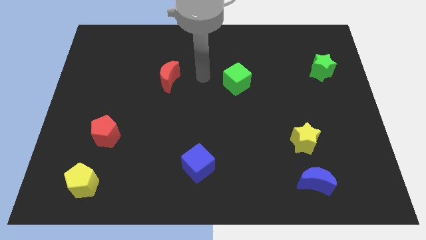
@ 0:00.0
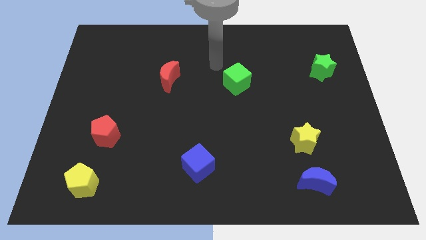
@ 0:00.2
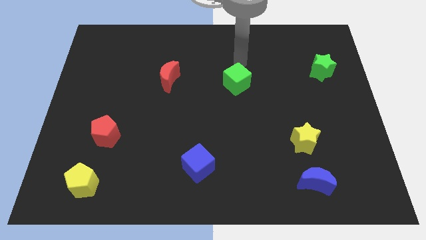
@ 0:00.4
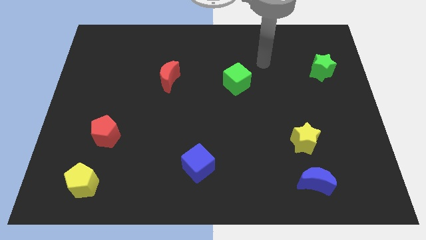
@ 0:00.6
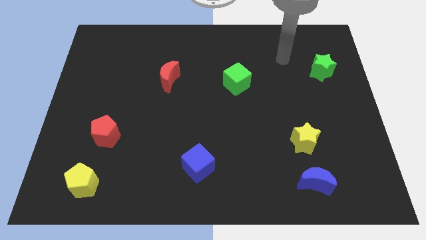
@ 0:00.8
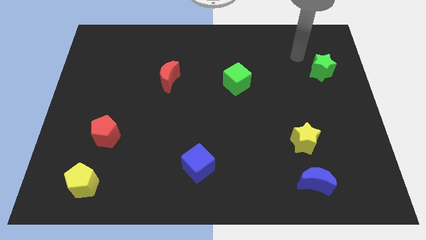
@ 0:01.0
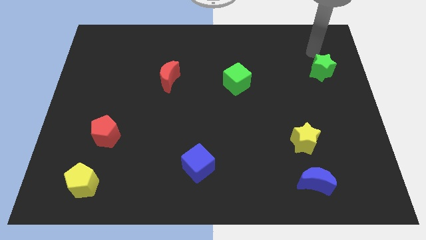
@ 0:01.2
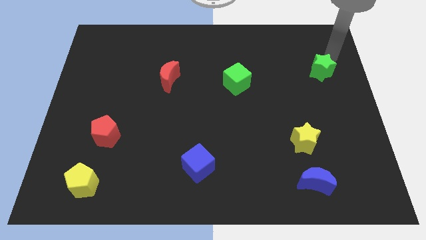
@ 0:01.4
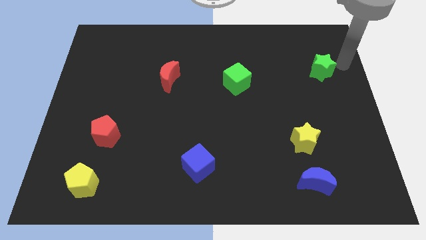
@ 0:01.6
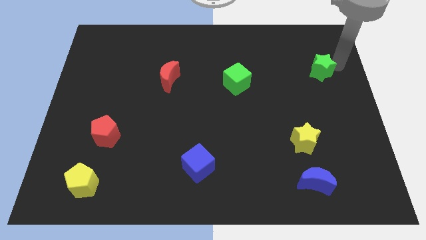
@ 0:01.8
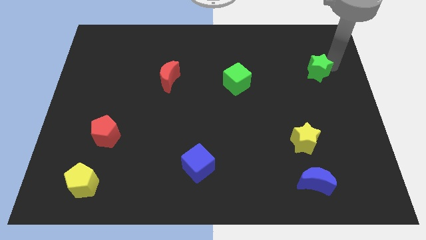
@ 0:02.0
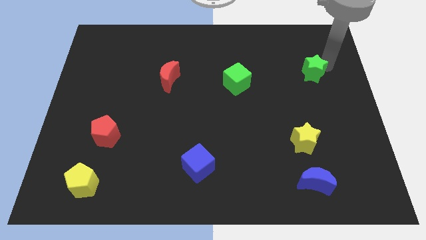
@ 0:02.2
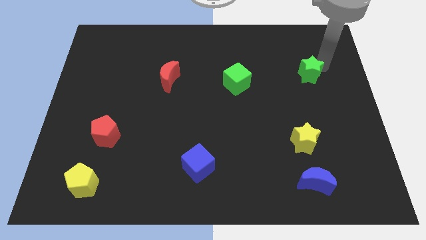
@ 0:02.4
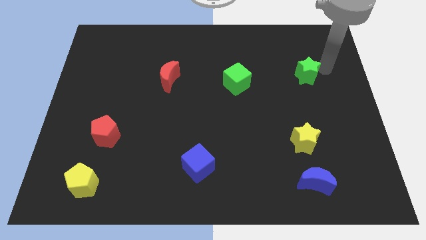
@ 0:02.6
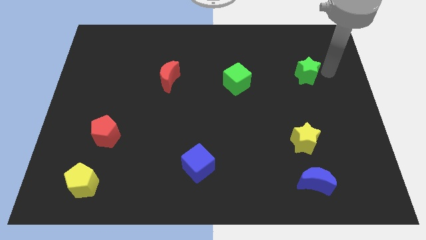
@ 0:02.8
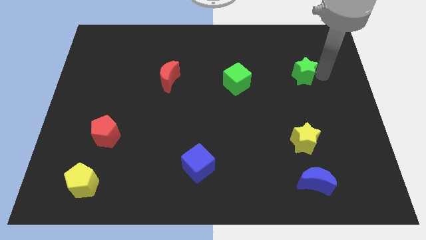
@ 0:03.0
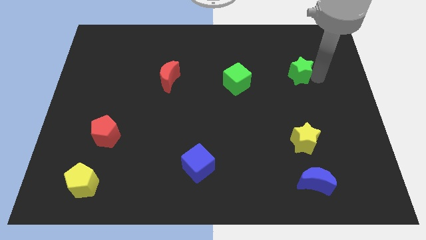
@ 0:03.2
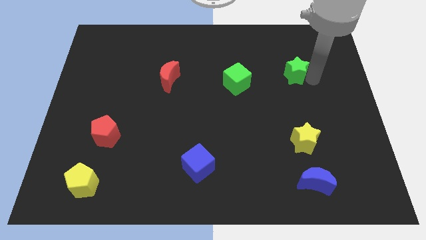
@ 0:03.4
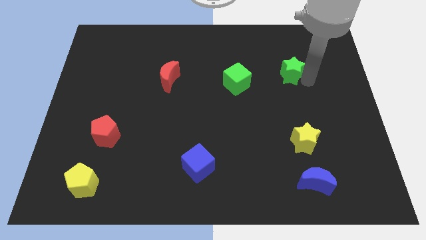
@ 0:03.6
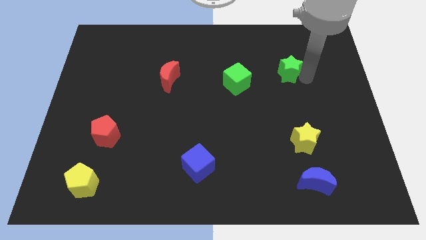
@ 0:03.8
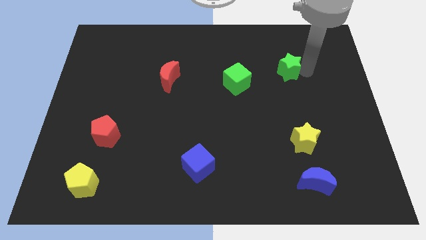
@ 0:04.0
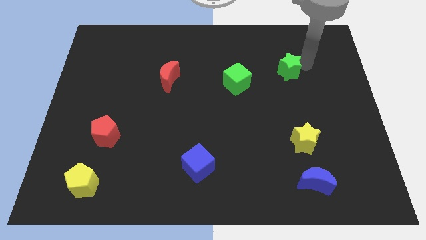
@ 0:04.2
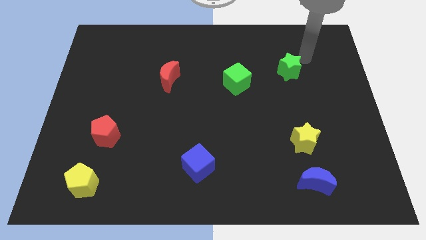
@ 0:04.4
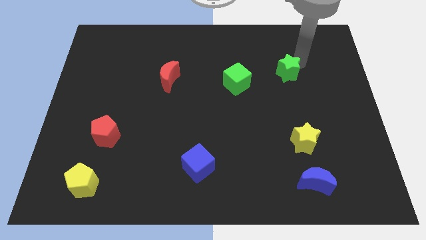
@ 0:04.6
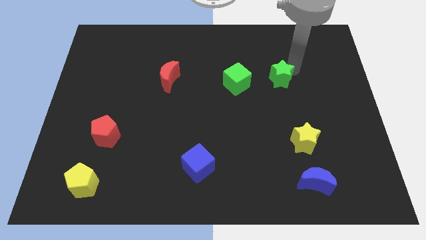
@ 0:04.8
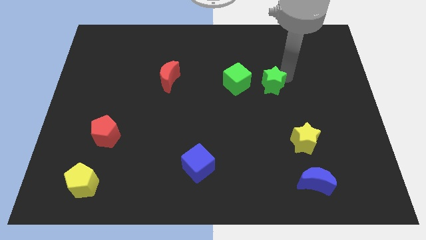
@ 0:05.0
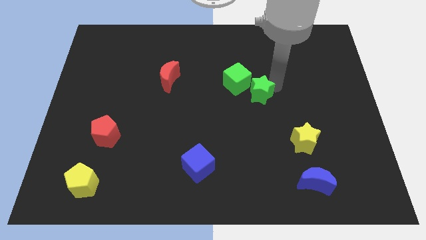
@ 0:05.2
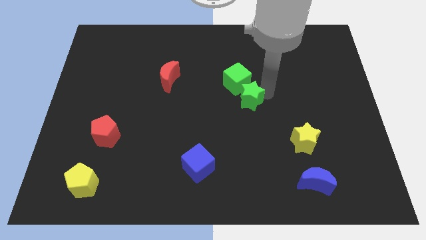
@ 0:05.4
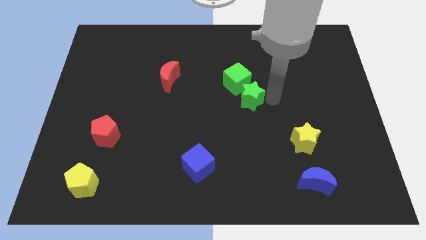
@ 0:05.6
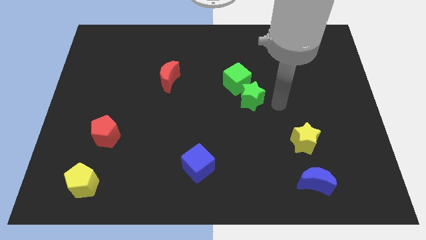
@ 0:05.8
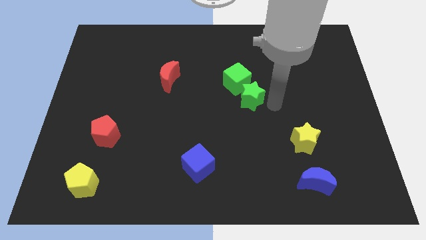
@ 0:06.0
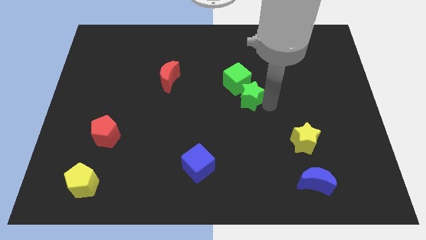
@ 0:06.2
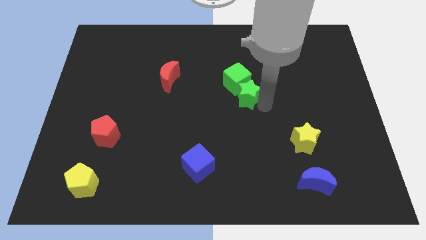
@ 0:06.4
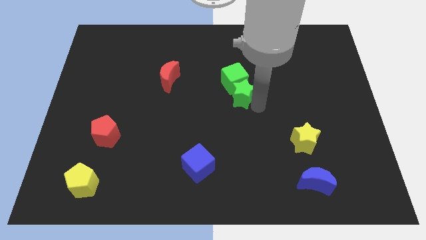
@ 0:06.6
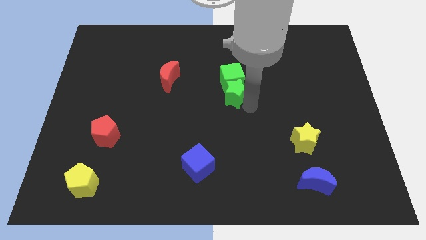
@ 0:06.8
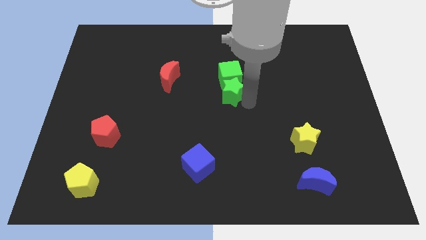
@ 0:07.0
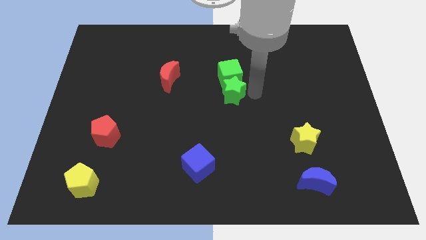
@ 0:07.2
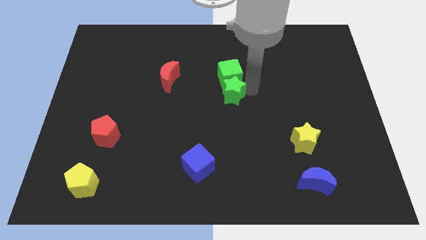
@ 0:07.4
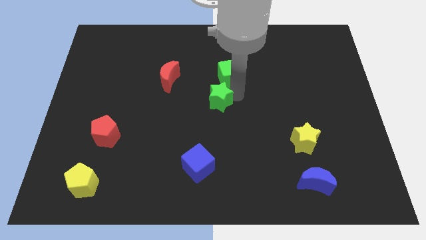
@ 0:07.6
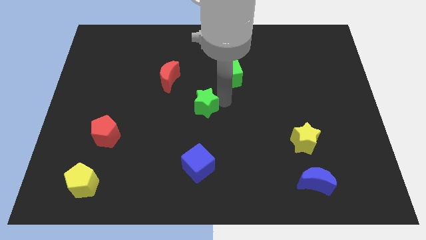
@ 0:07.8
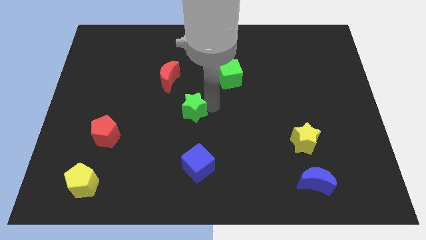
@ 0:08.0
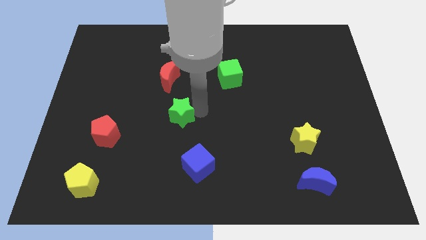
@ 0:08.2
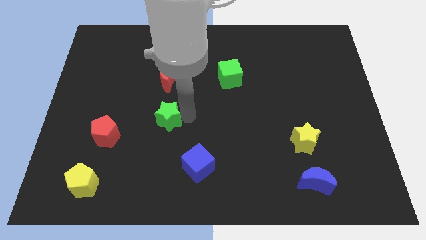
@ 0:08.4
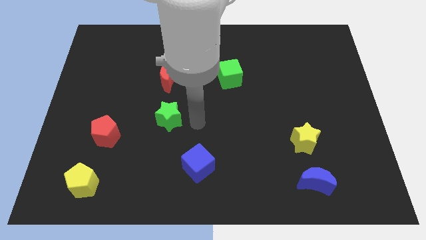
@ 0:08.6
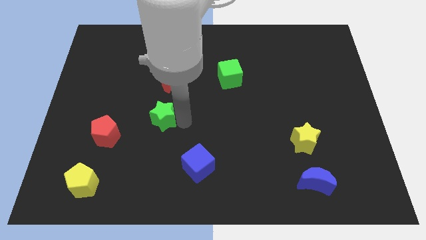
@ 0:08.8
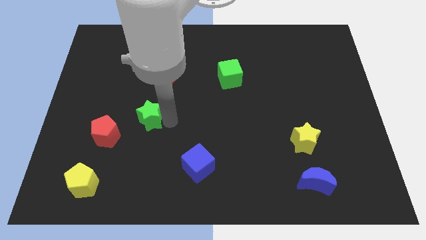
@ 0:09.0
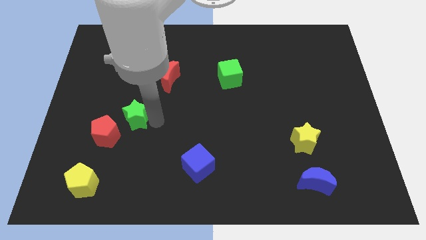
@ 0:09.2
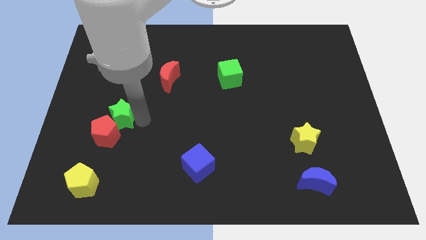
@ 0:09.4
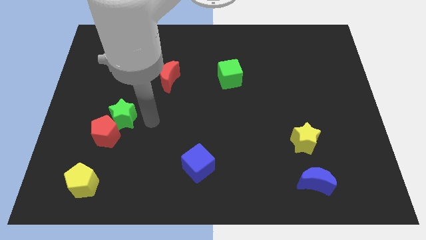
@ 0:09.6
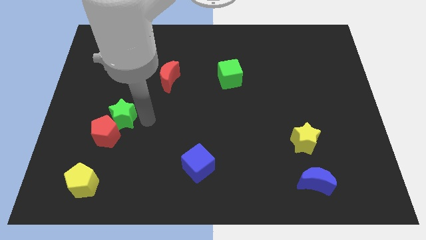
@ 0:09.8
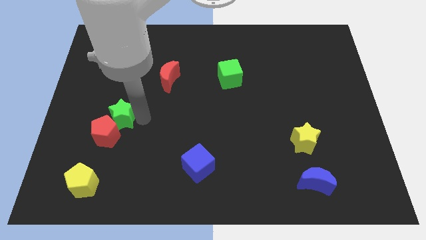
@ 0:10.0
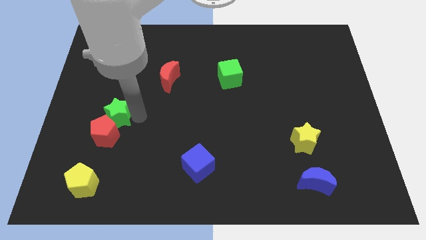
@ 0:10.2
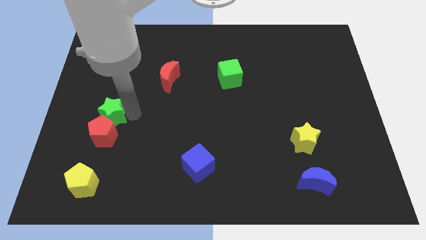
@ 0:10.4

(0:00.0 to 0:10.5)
put the green star to the top left side of the red pentagon
